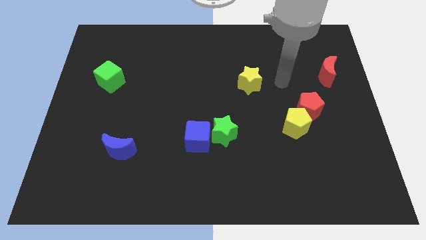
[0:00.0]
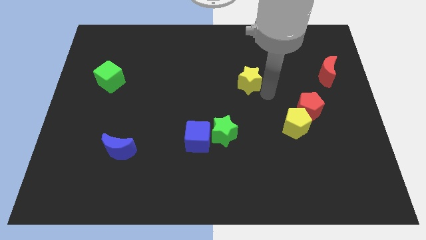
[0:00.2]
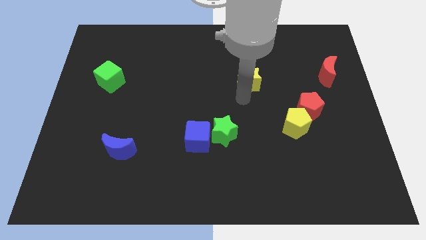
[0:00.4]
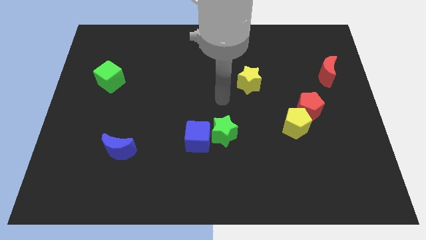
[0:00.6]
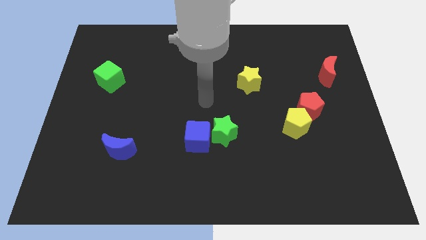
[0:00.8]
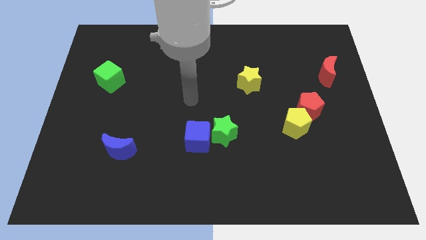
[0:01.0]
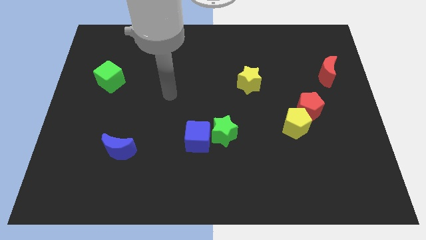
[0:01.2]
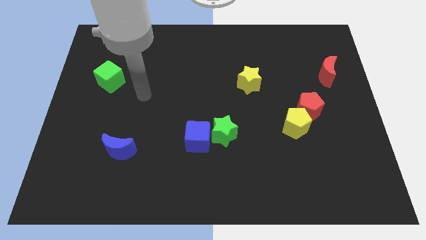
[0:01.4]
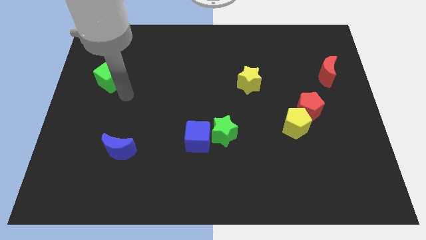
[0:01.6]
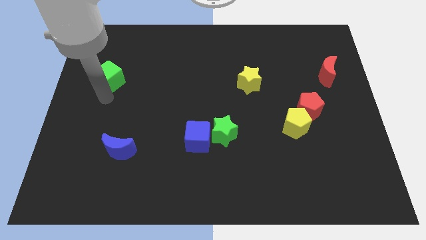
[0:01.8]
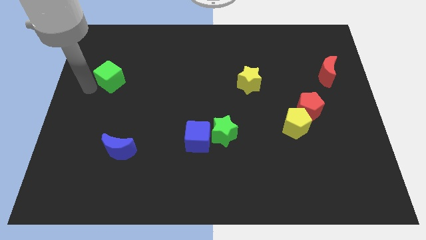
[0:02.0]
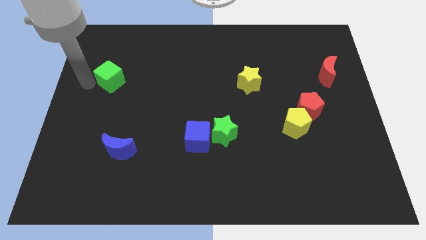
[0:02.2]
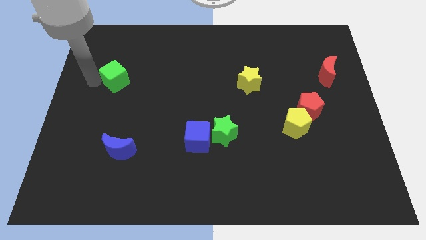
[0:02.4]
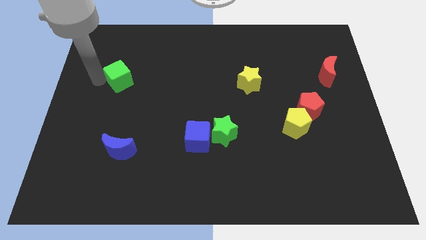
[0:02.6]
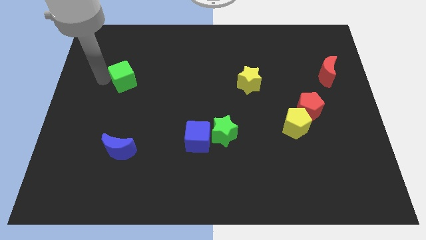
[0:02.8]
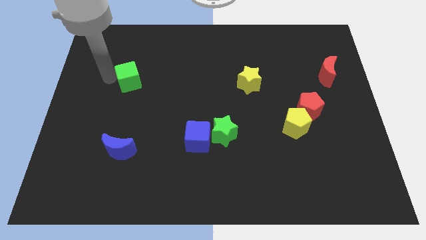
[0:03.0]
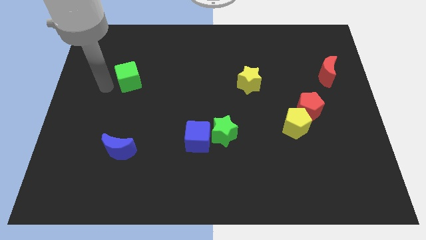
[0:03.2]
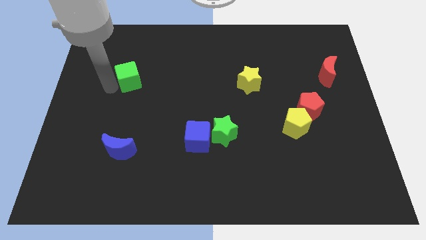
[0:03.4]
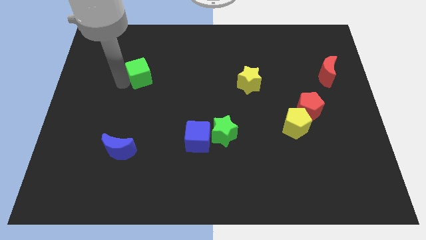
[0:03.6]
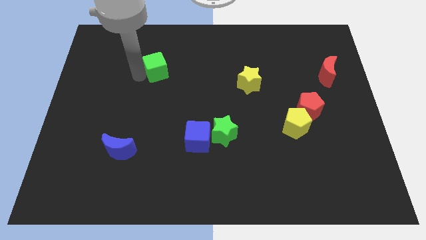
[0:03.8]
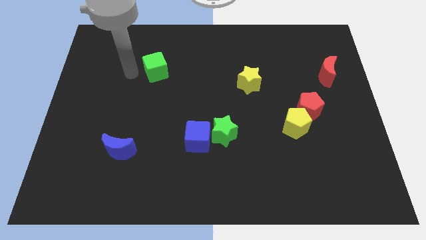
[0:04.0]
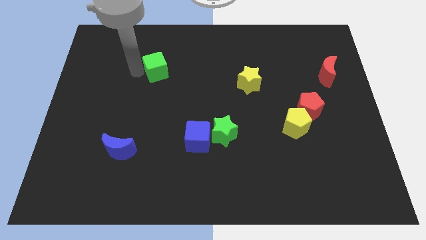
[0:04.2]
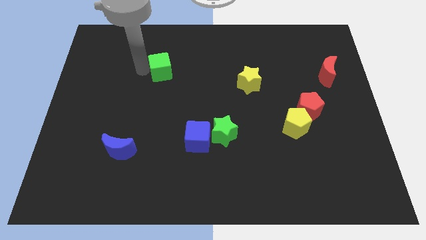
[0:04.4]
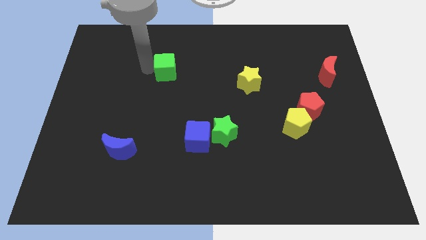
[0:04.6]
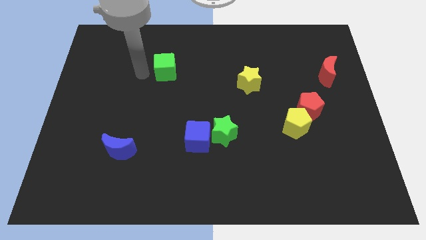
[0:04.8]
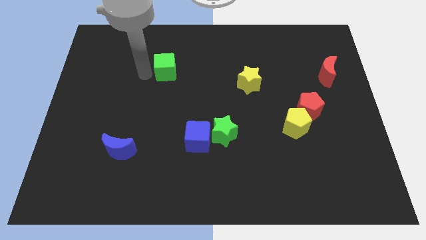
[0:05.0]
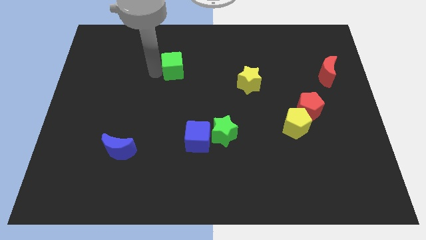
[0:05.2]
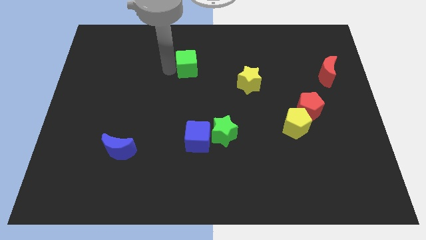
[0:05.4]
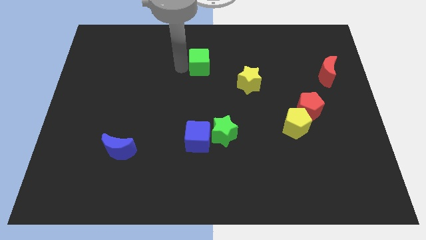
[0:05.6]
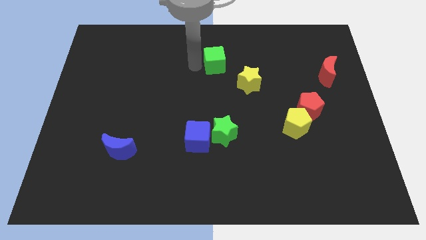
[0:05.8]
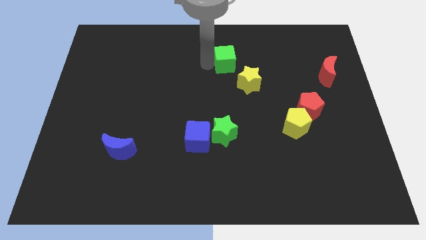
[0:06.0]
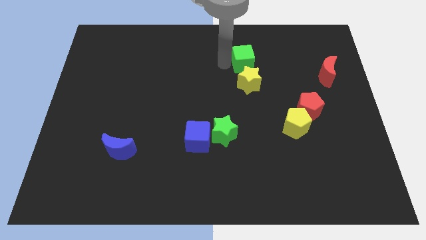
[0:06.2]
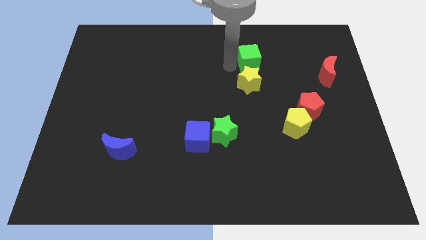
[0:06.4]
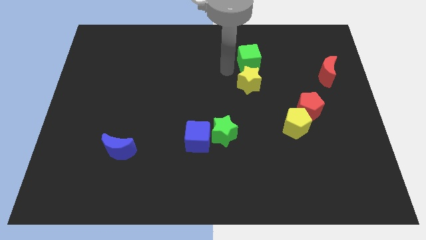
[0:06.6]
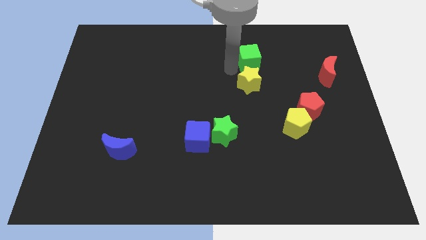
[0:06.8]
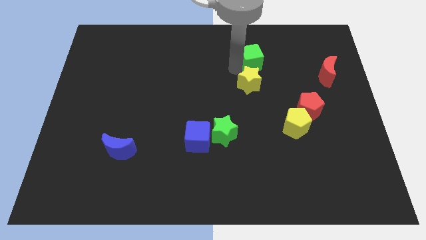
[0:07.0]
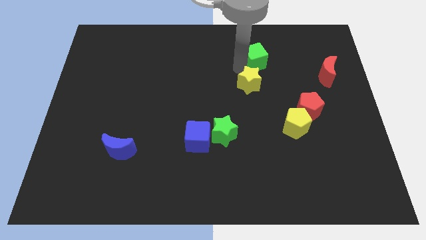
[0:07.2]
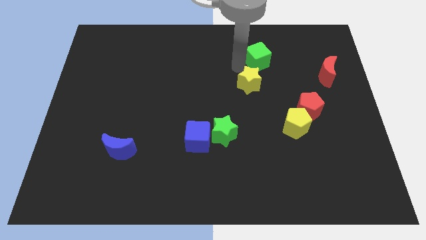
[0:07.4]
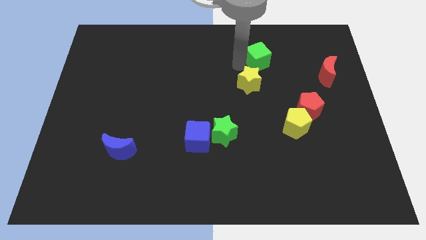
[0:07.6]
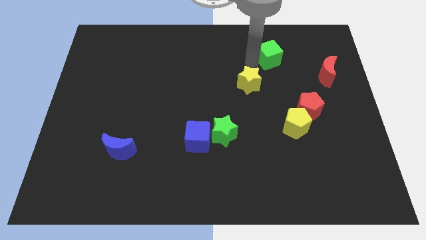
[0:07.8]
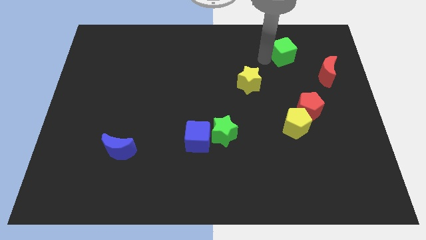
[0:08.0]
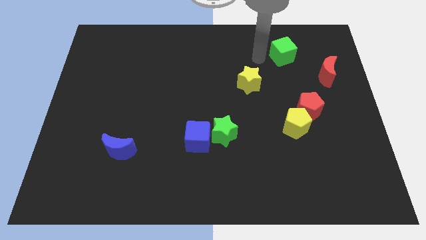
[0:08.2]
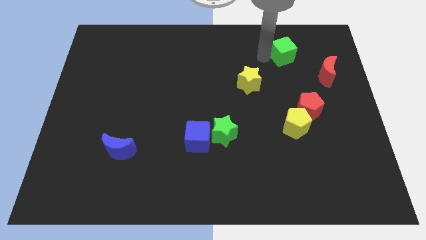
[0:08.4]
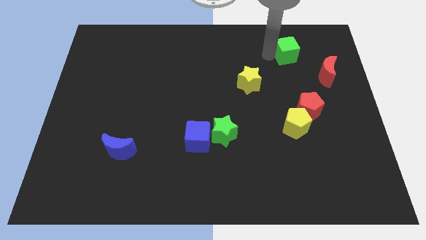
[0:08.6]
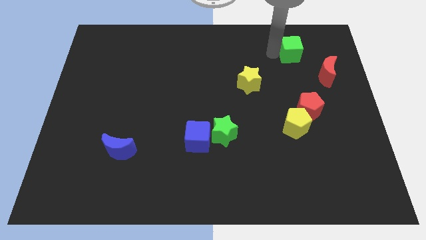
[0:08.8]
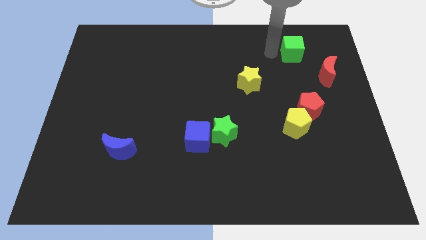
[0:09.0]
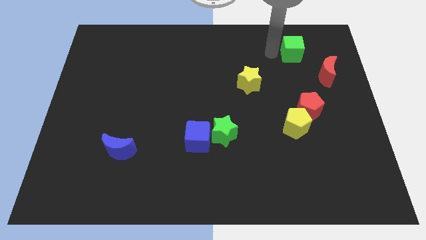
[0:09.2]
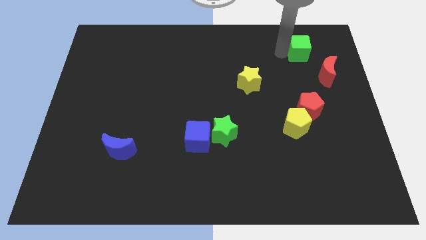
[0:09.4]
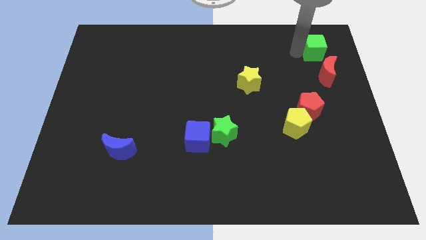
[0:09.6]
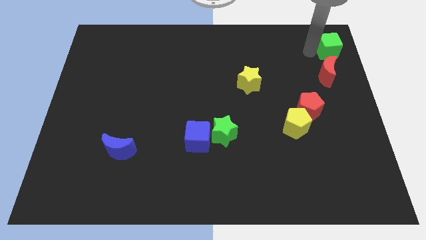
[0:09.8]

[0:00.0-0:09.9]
slide the green cube to the upper right corner

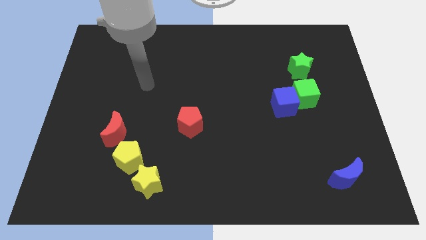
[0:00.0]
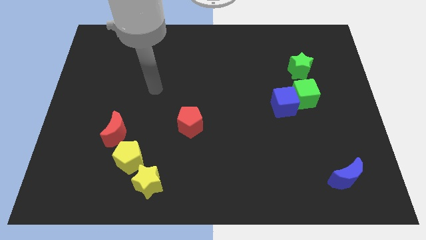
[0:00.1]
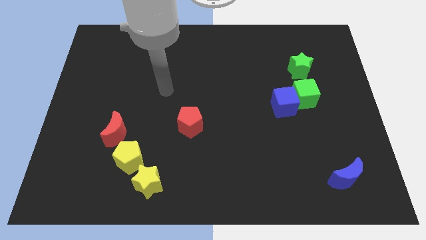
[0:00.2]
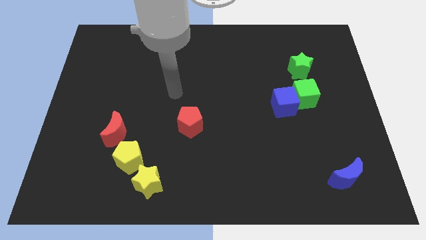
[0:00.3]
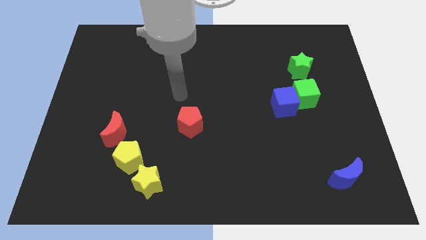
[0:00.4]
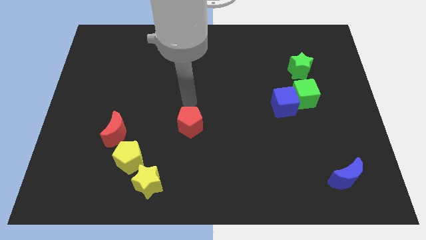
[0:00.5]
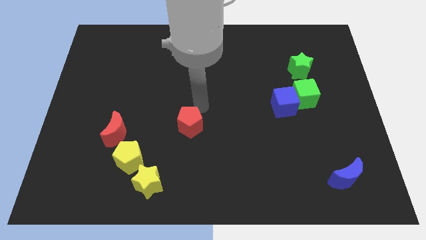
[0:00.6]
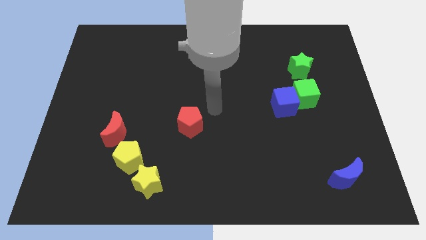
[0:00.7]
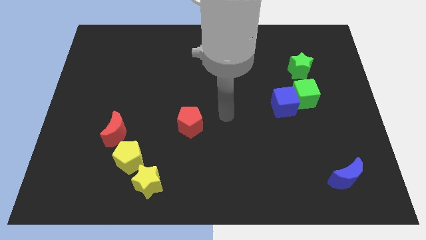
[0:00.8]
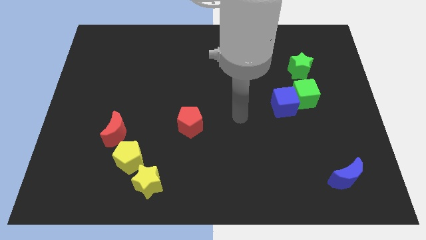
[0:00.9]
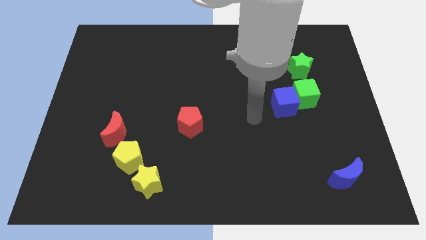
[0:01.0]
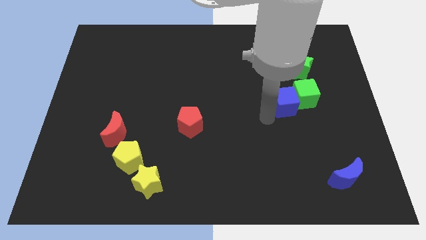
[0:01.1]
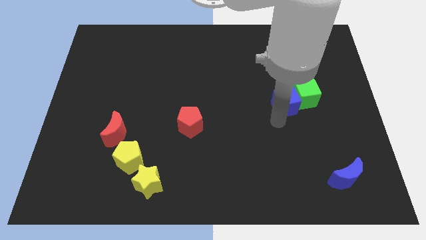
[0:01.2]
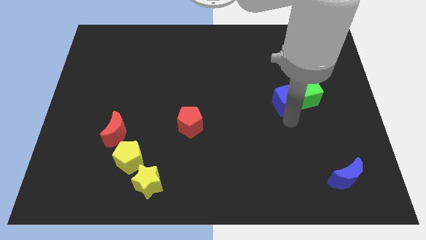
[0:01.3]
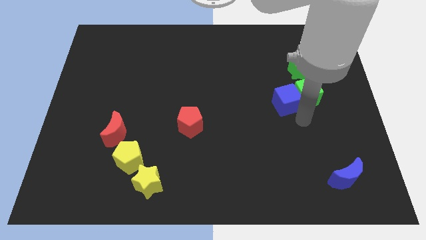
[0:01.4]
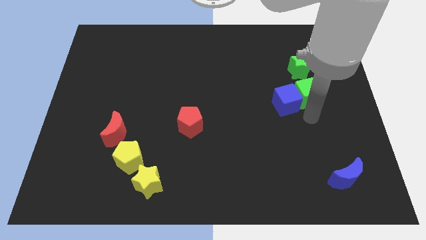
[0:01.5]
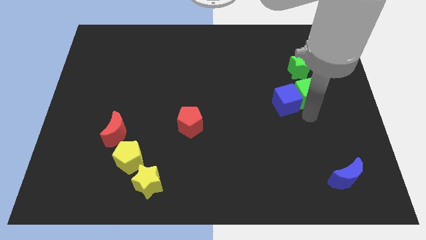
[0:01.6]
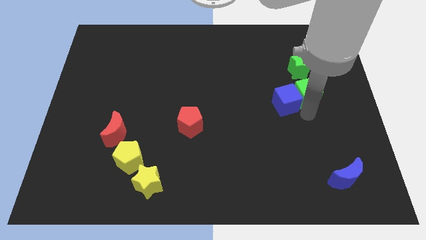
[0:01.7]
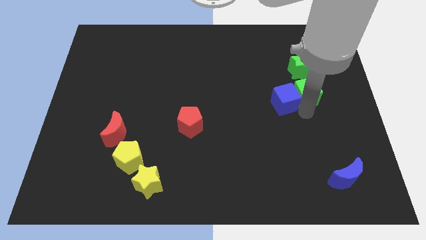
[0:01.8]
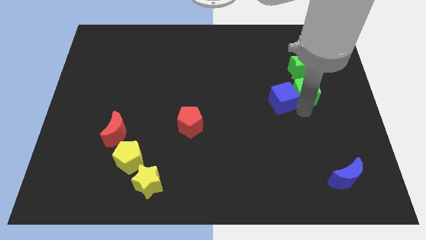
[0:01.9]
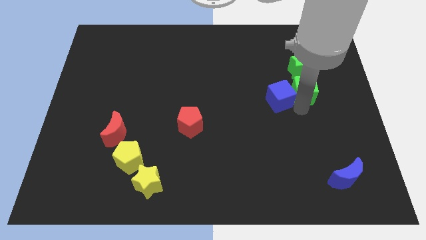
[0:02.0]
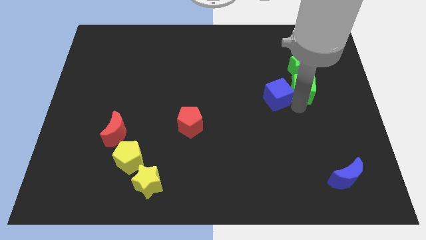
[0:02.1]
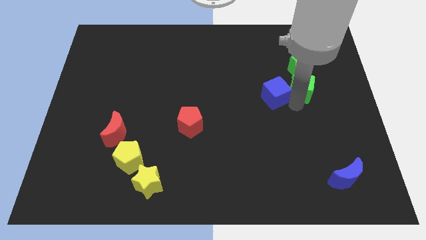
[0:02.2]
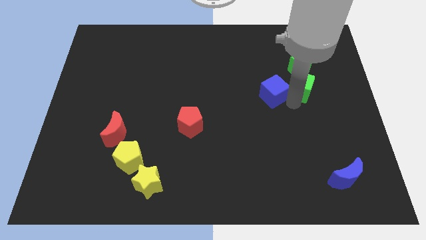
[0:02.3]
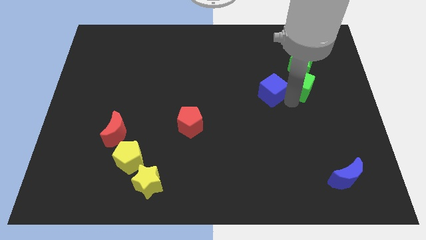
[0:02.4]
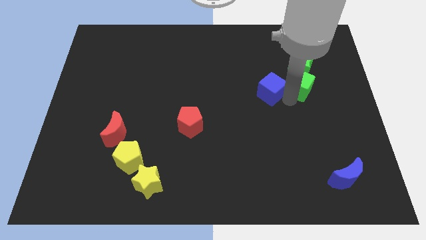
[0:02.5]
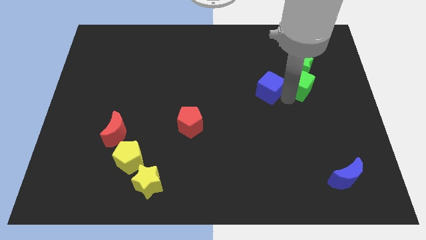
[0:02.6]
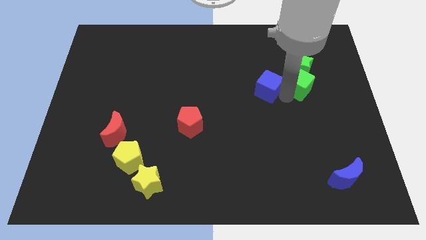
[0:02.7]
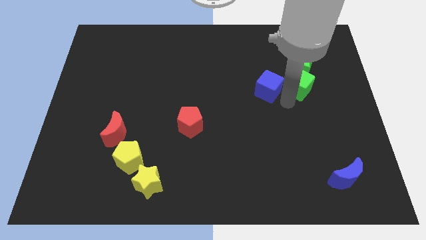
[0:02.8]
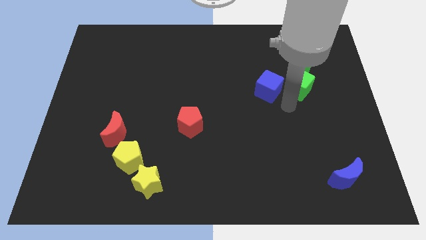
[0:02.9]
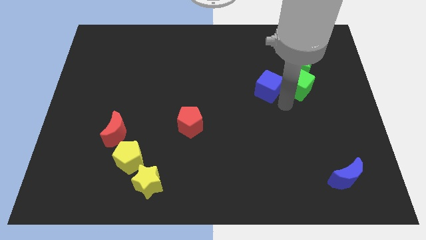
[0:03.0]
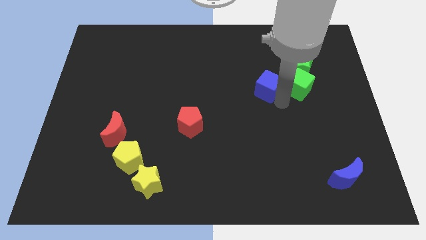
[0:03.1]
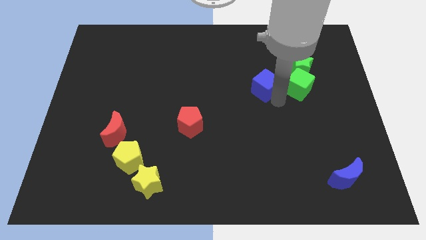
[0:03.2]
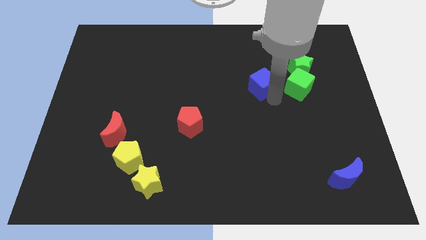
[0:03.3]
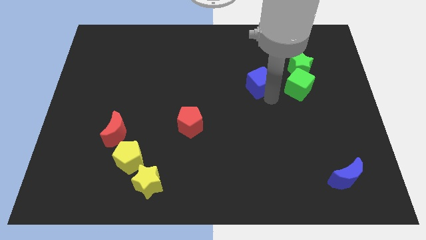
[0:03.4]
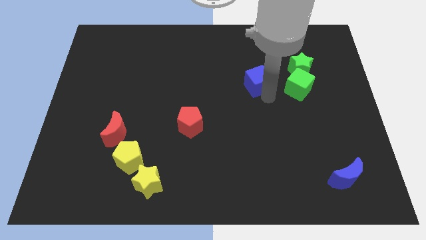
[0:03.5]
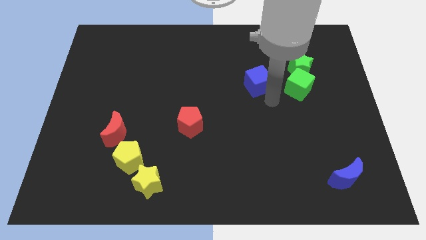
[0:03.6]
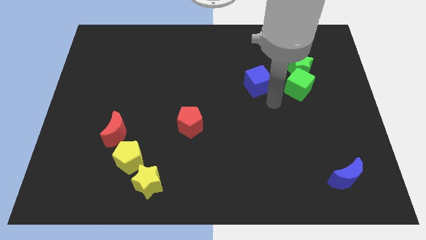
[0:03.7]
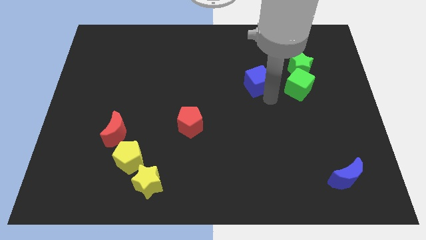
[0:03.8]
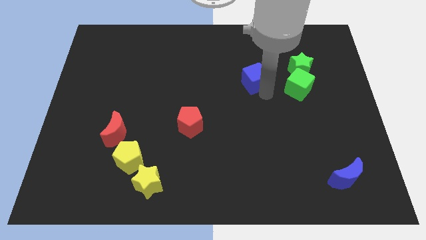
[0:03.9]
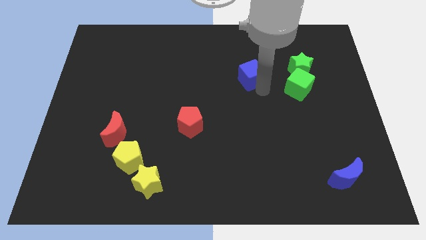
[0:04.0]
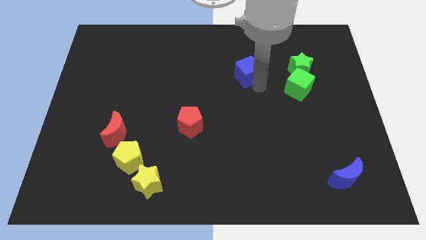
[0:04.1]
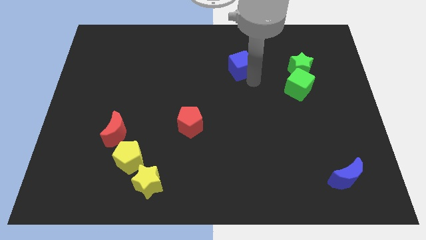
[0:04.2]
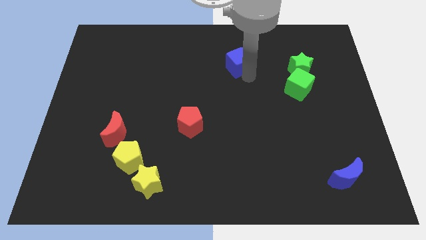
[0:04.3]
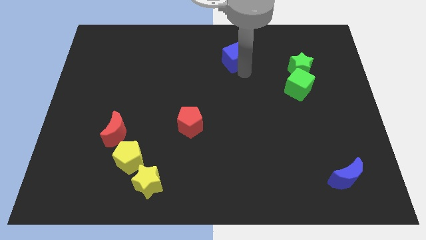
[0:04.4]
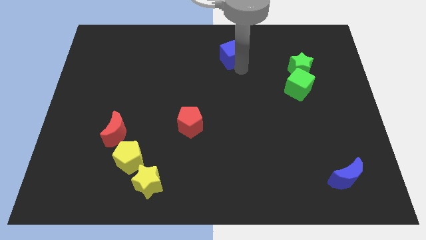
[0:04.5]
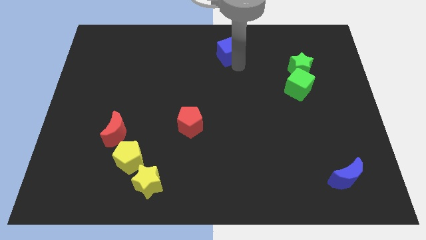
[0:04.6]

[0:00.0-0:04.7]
push the blue cube to the top
